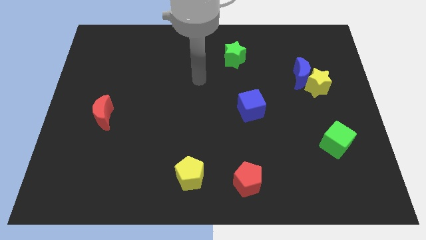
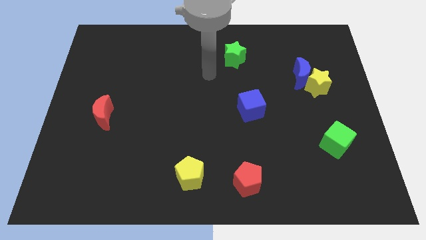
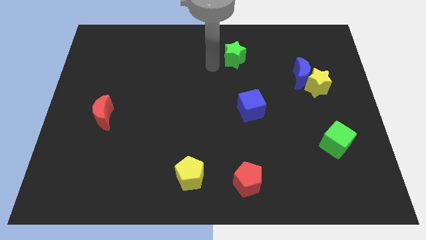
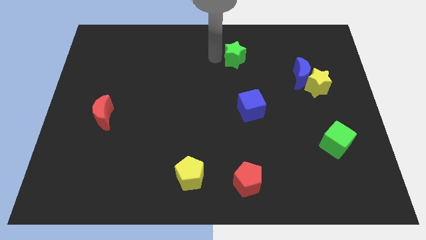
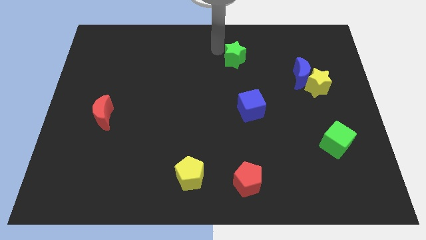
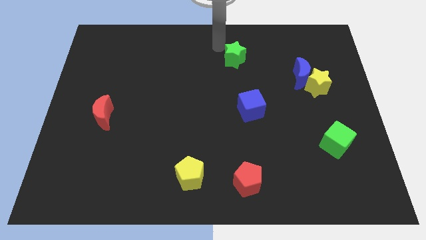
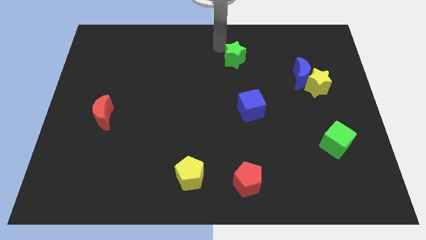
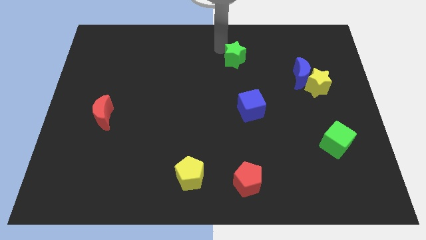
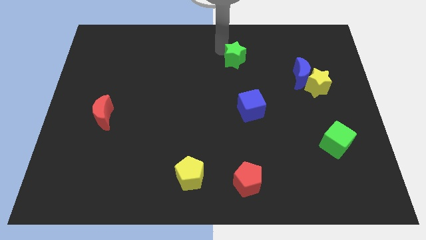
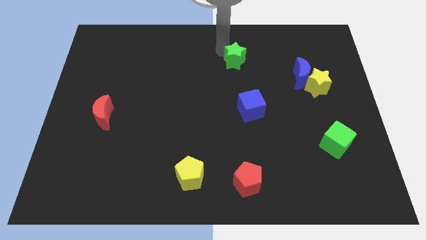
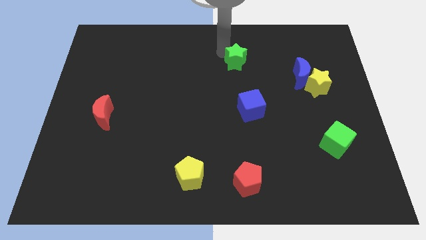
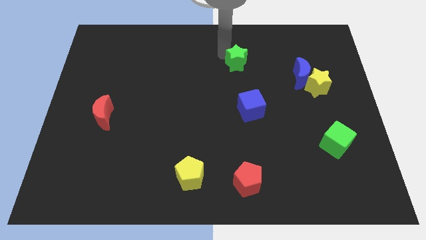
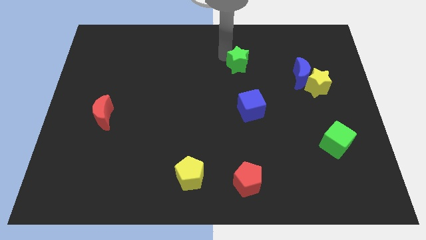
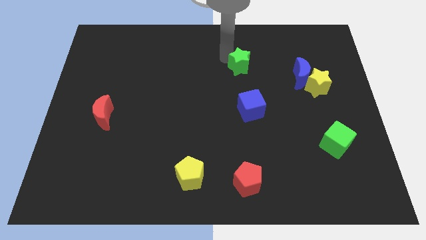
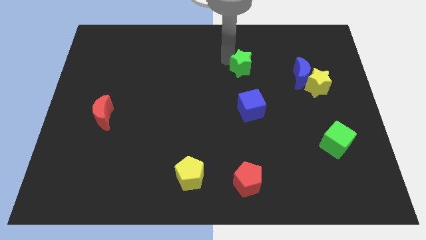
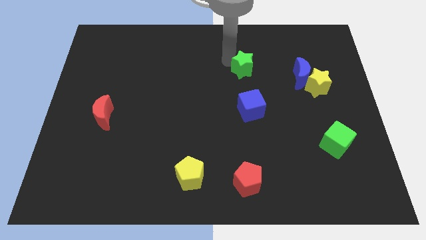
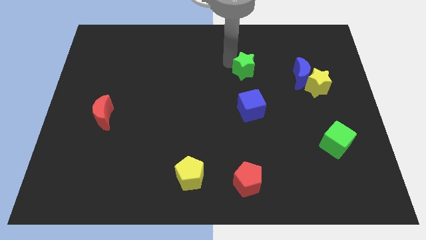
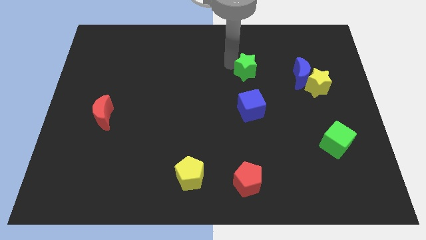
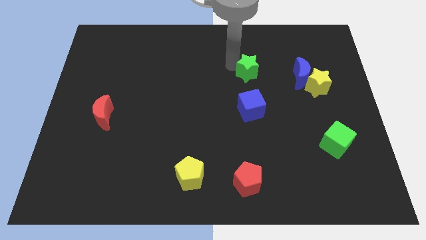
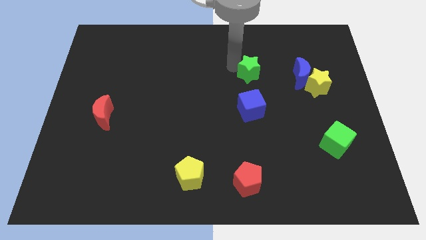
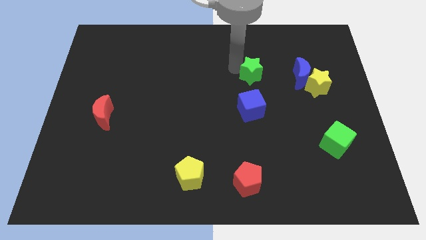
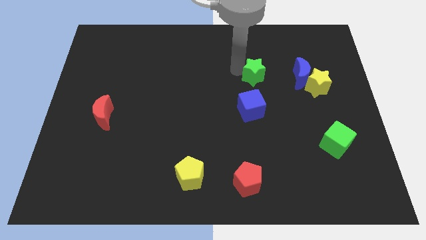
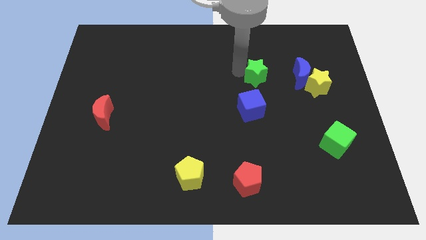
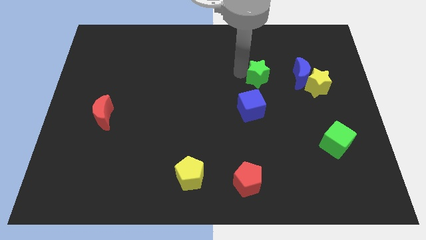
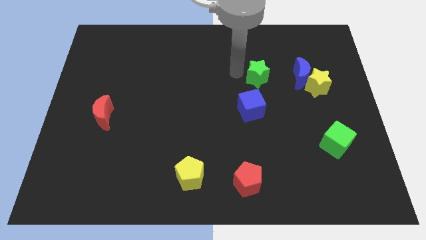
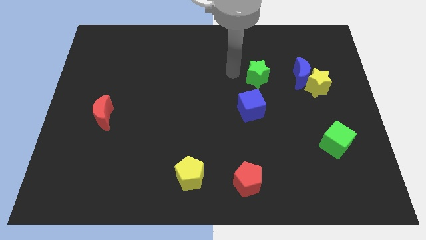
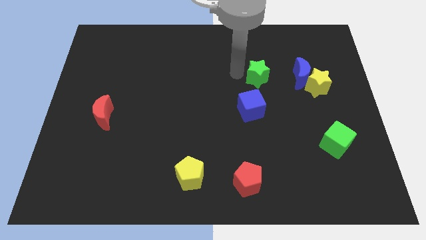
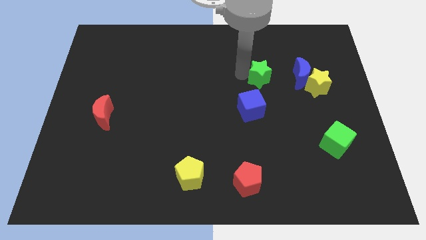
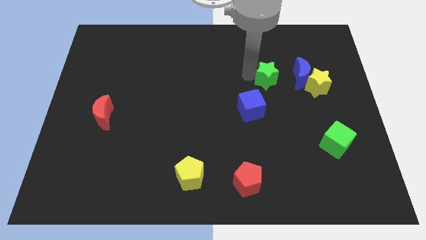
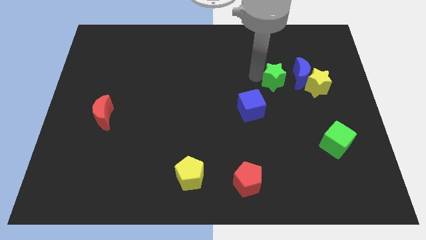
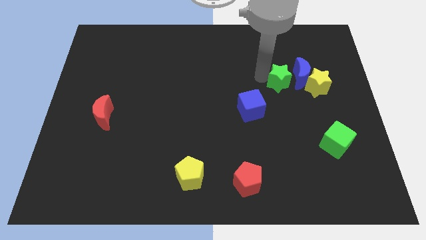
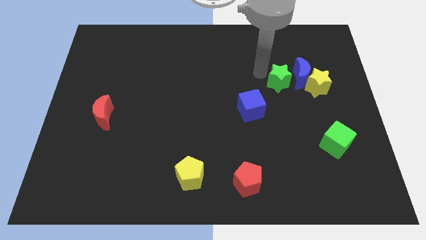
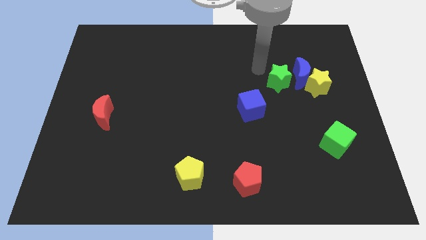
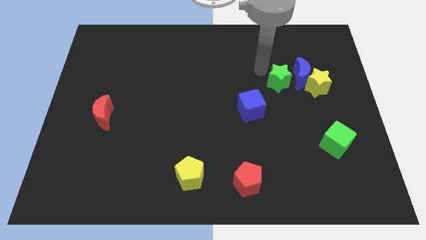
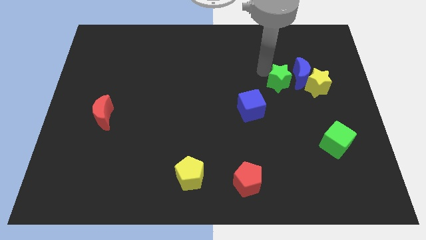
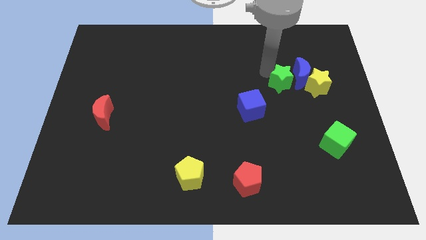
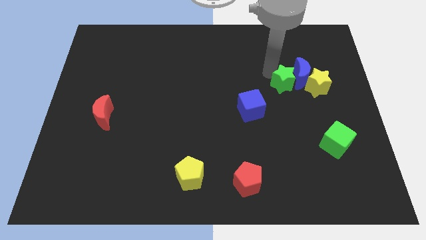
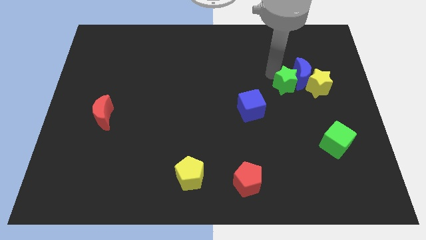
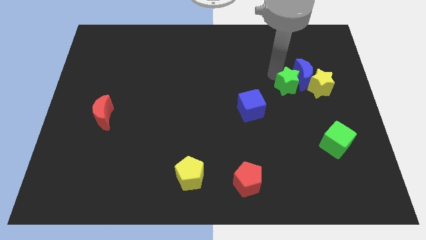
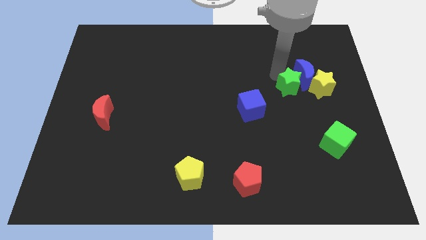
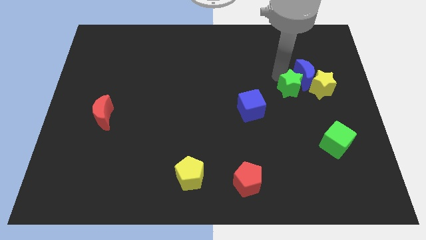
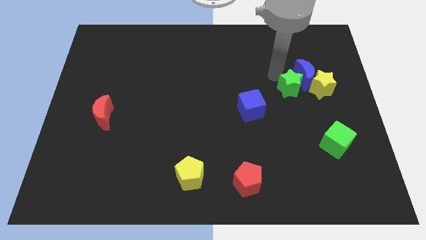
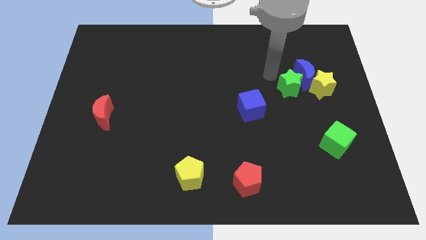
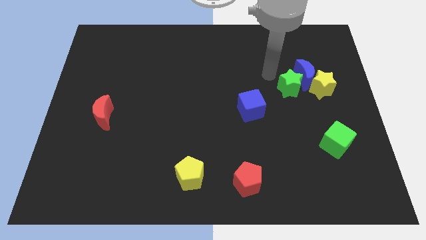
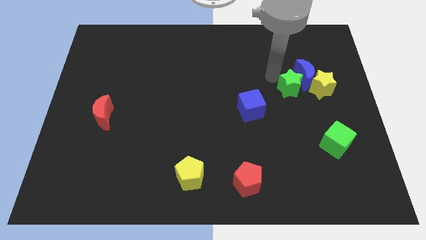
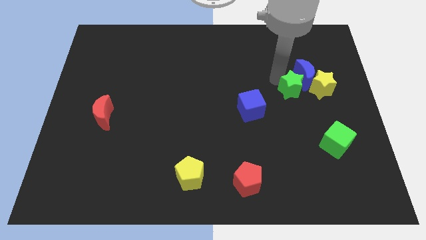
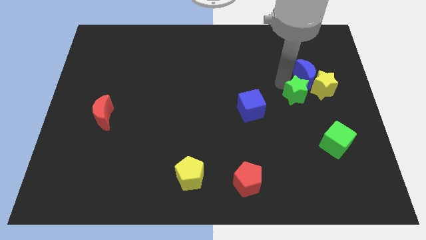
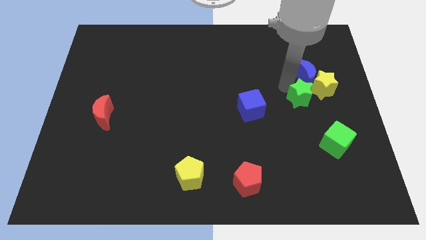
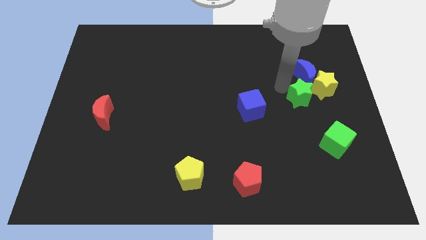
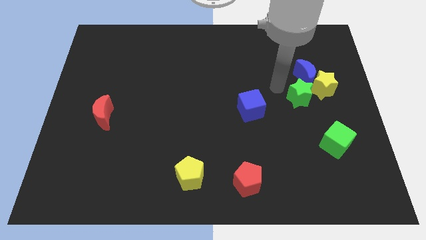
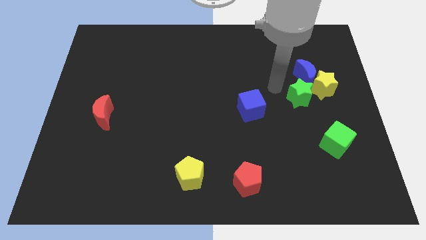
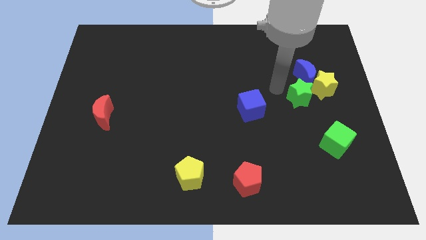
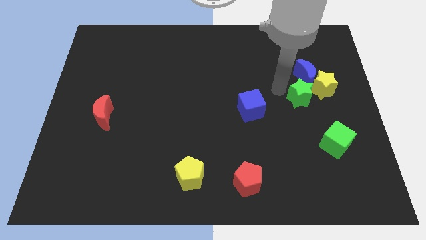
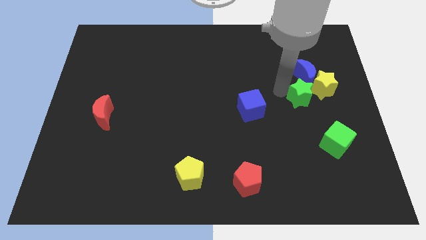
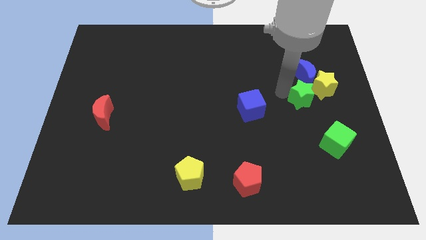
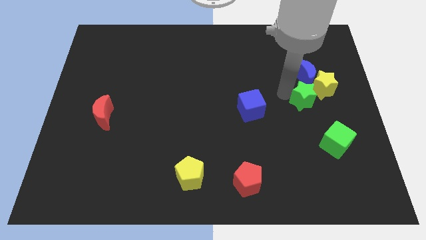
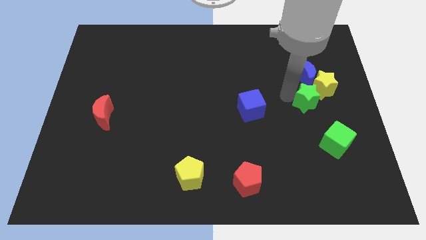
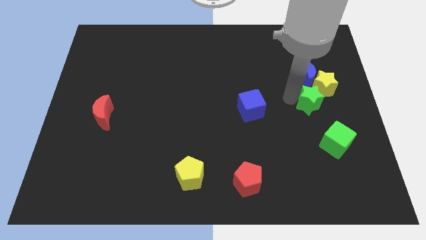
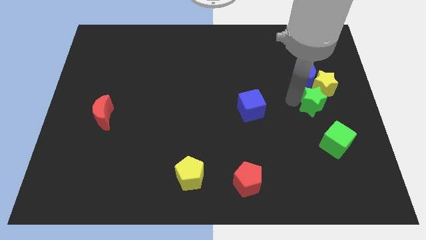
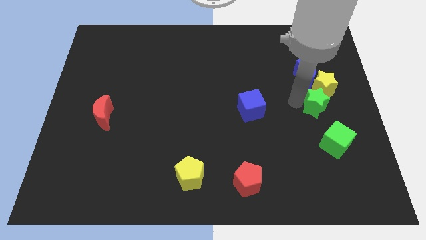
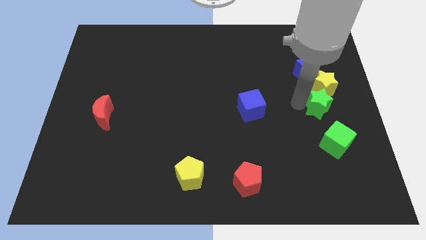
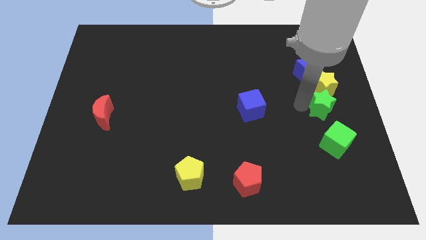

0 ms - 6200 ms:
slide the green star to the center right

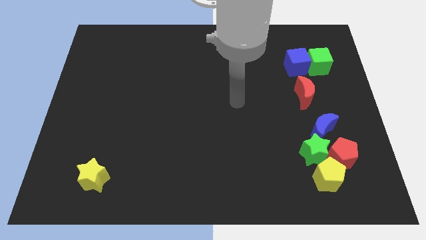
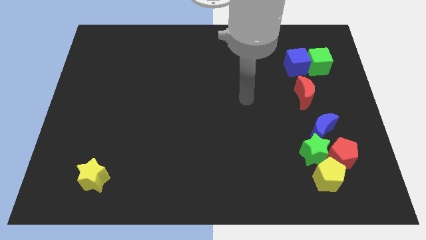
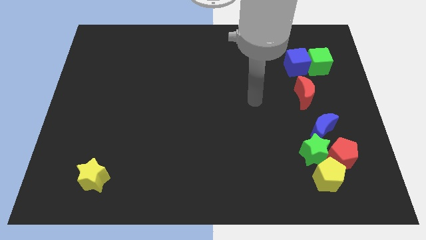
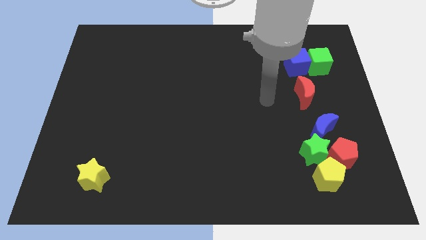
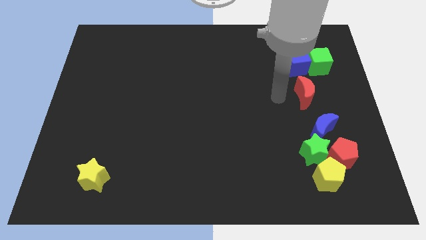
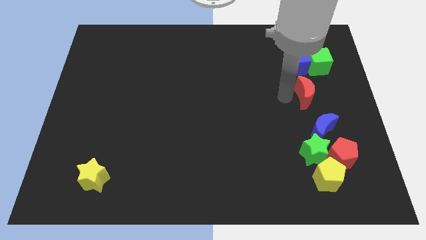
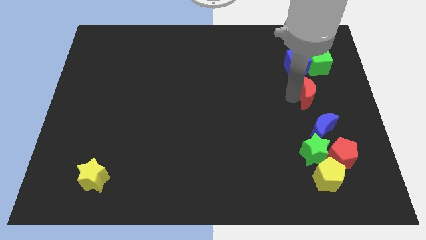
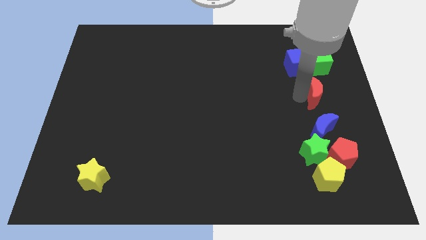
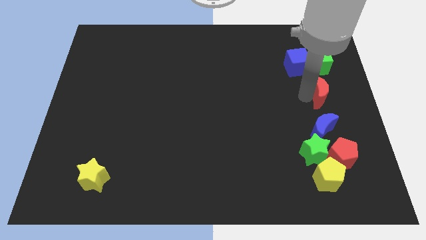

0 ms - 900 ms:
put the red moon to the right side of the board

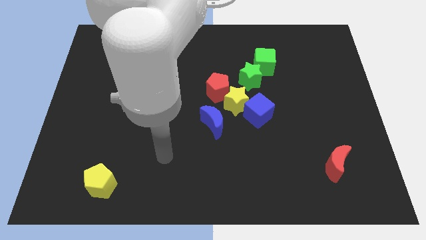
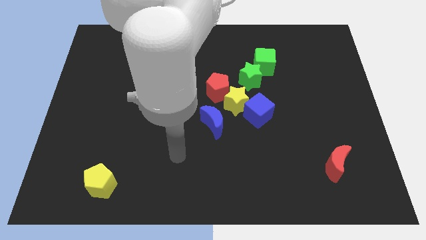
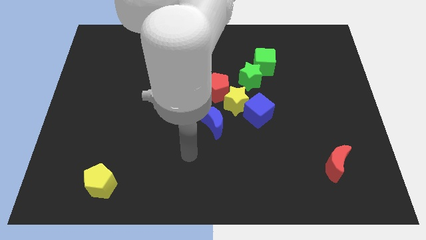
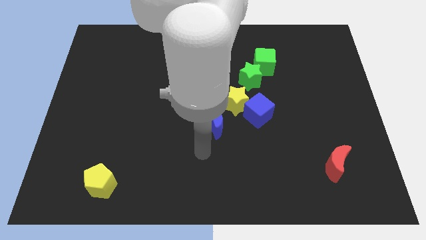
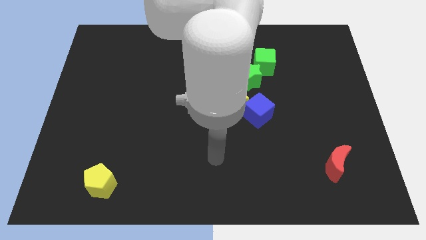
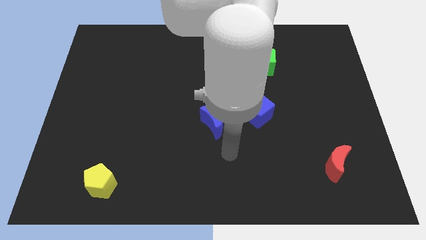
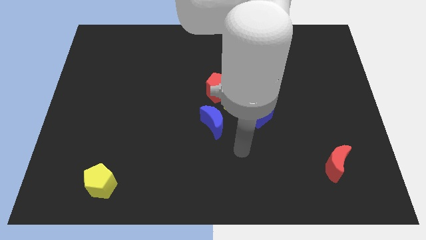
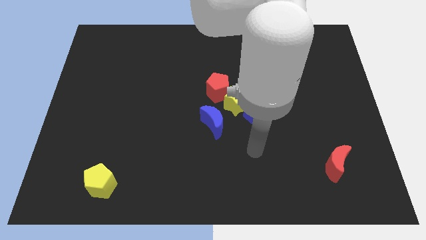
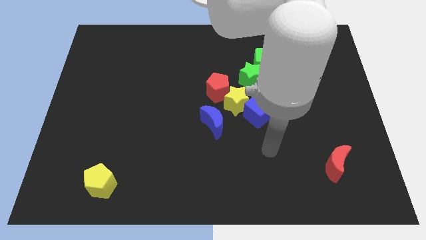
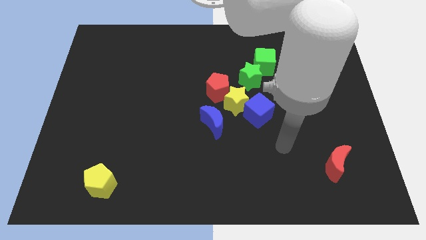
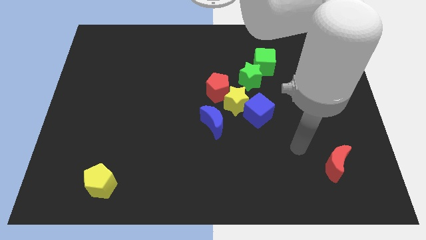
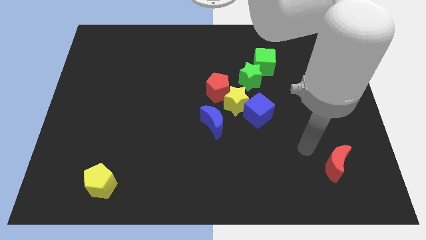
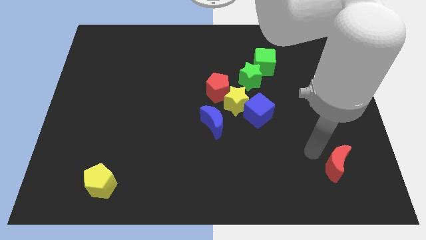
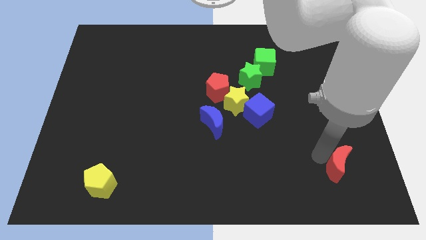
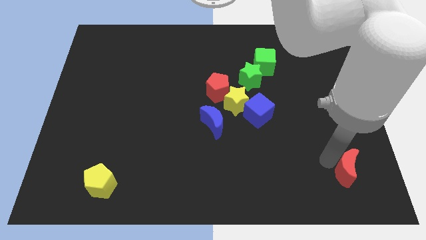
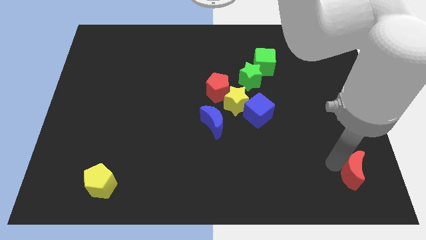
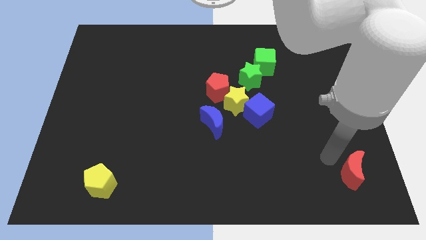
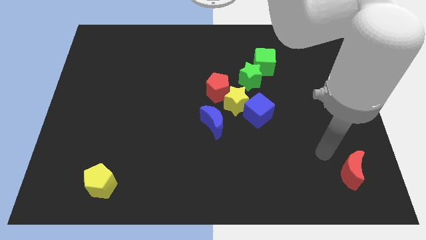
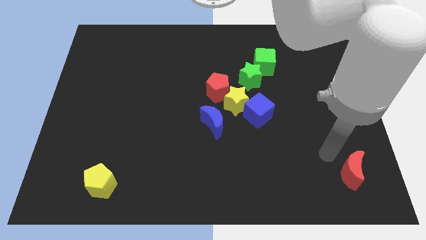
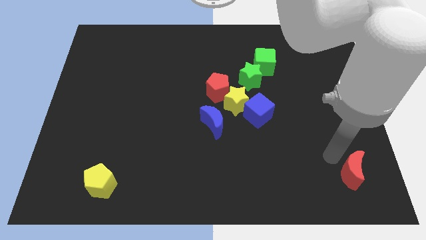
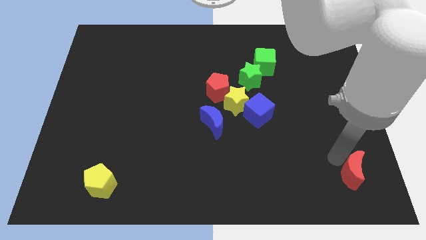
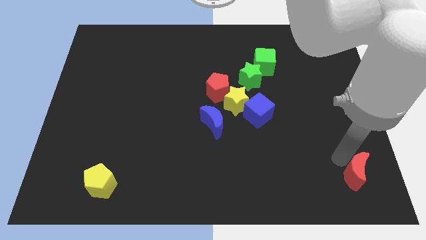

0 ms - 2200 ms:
push the red moon to the lower right corner
